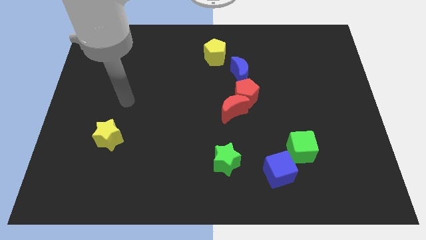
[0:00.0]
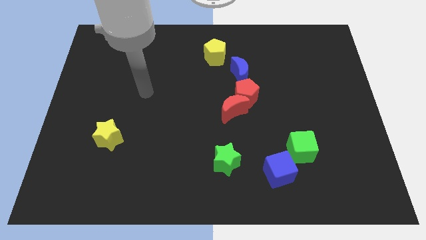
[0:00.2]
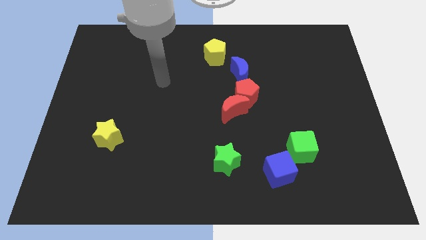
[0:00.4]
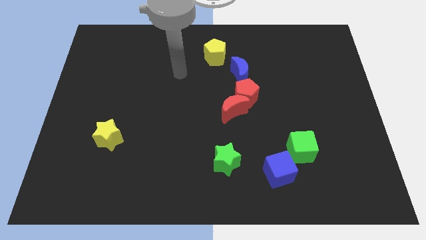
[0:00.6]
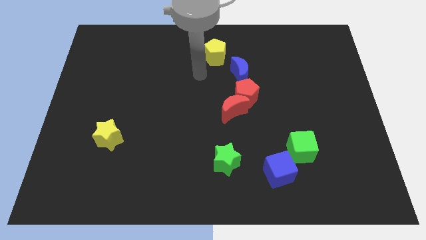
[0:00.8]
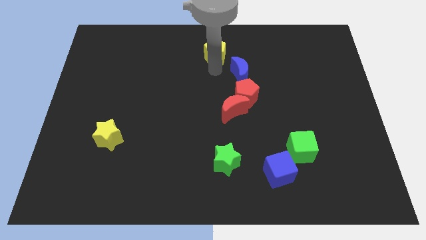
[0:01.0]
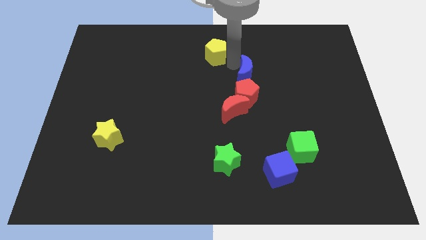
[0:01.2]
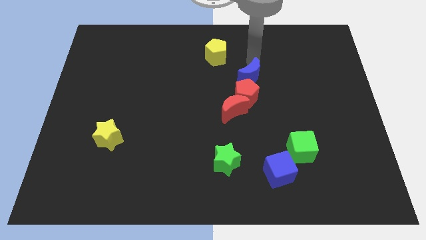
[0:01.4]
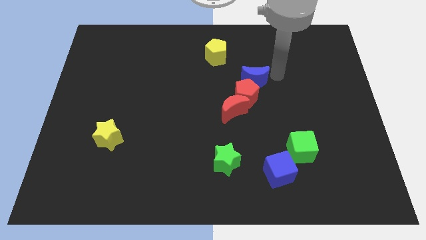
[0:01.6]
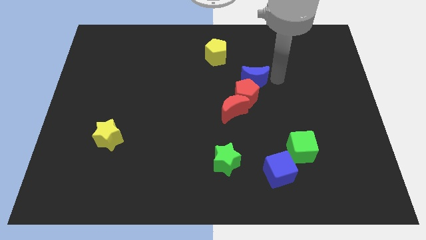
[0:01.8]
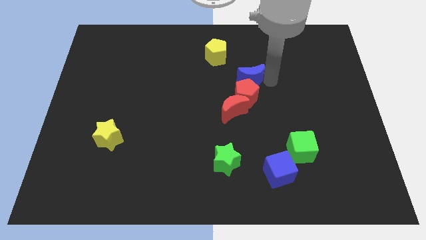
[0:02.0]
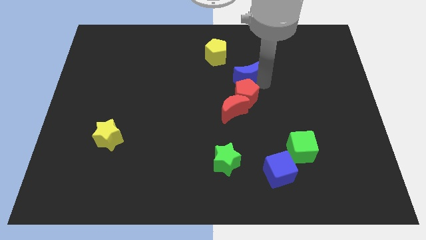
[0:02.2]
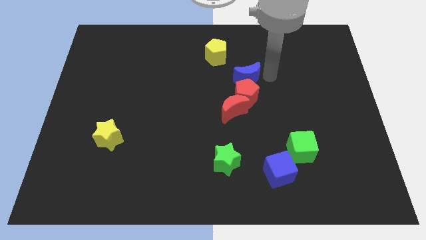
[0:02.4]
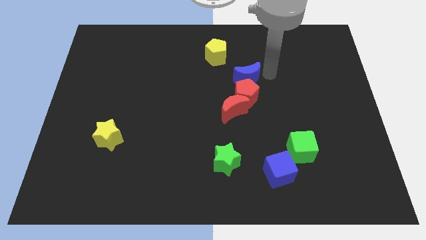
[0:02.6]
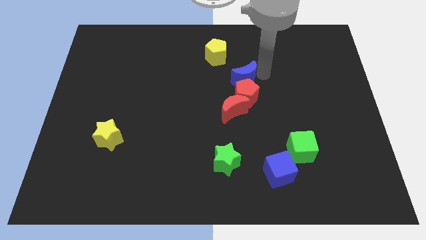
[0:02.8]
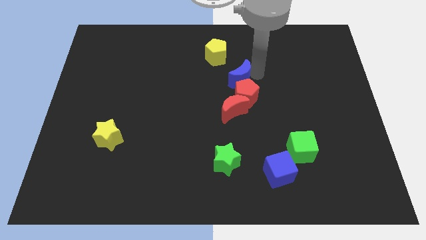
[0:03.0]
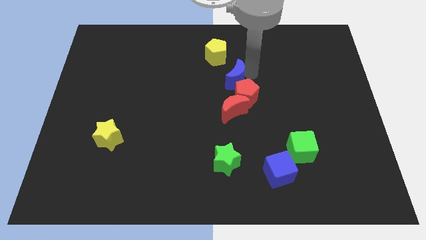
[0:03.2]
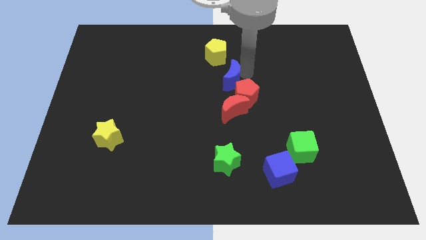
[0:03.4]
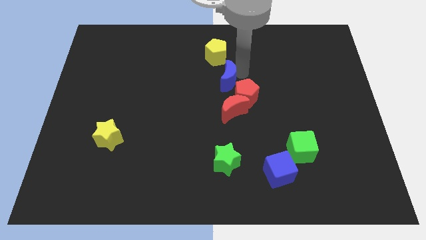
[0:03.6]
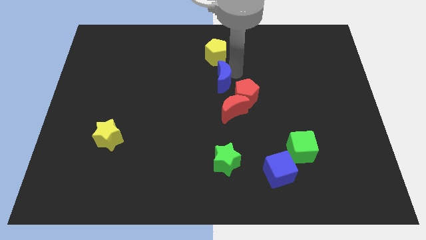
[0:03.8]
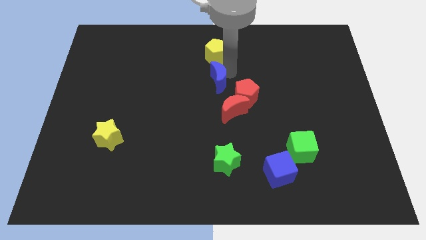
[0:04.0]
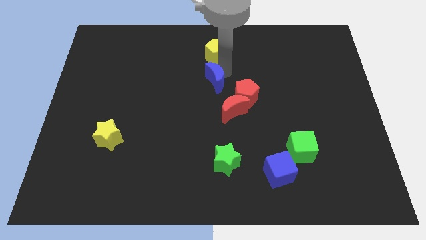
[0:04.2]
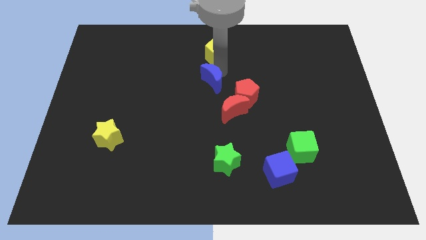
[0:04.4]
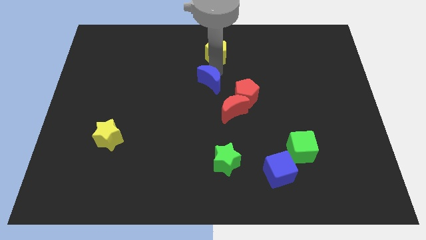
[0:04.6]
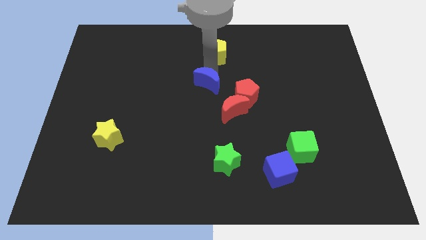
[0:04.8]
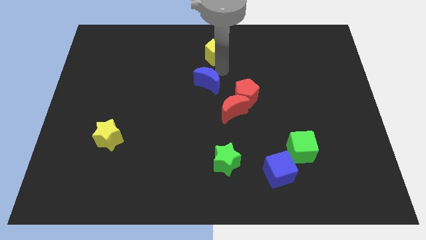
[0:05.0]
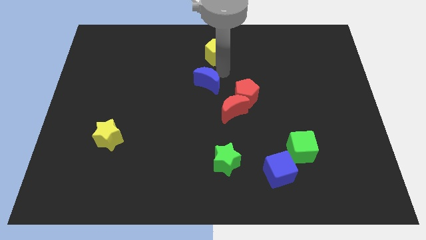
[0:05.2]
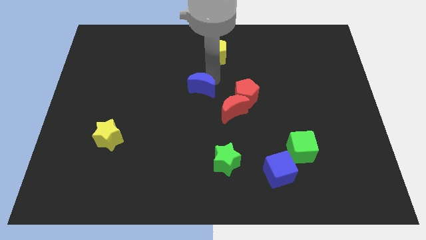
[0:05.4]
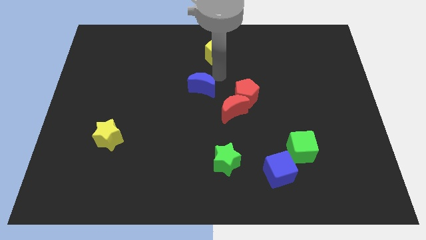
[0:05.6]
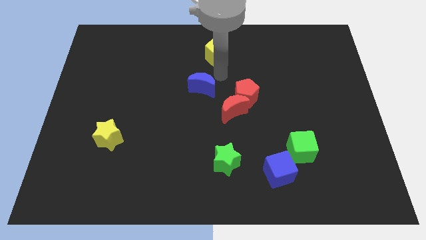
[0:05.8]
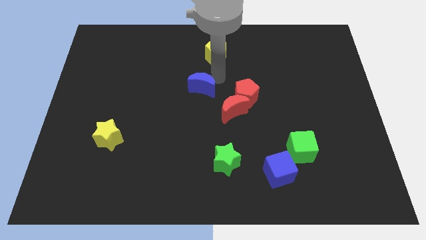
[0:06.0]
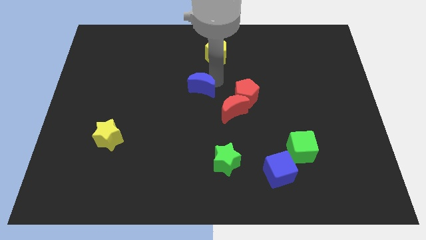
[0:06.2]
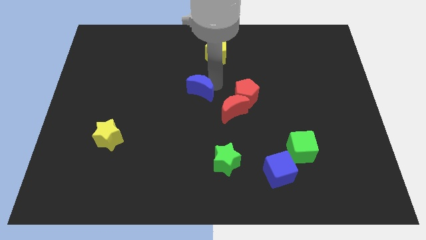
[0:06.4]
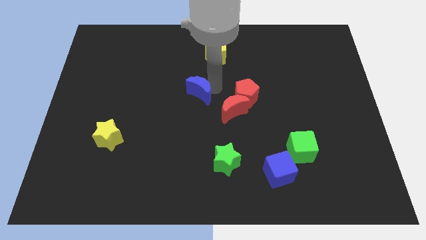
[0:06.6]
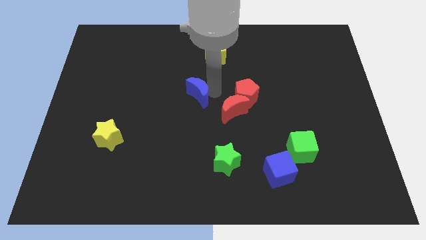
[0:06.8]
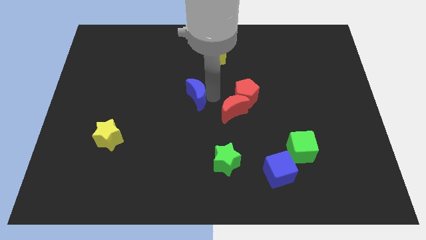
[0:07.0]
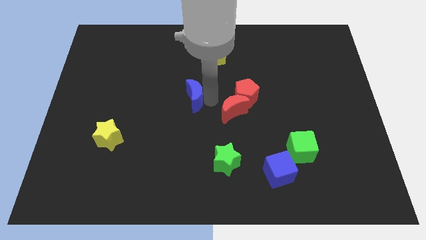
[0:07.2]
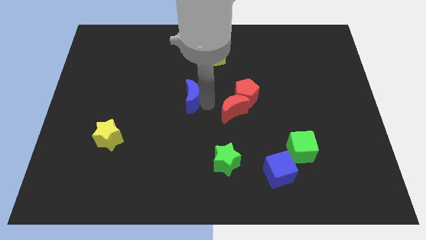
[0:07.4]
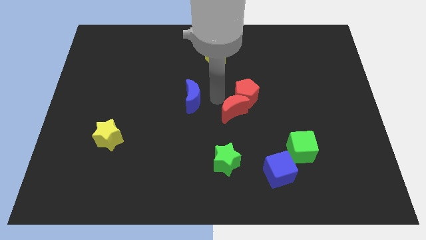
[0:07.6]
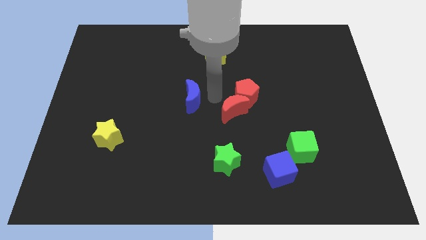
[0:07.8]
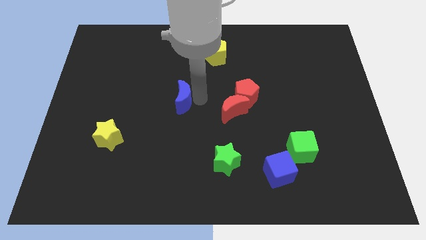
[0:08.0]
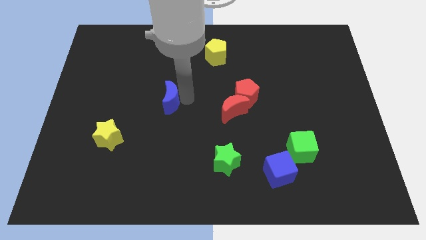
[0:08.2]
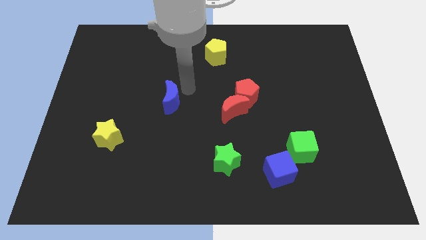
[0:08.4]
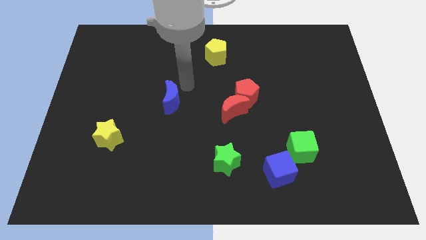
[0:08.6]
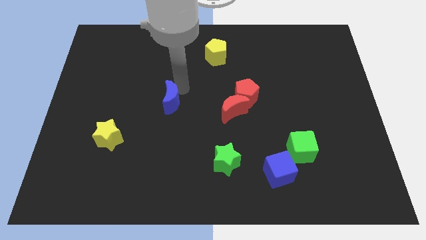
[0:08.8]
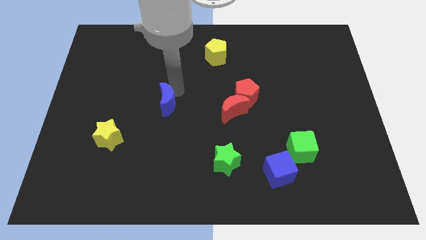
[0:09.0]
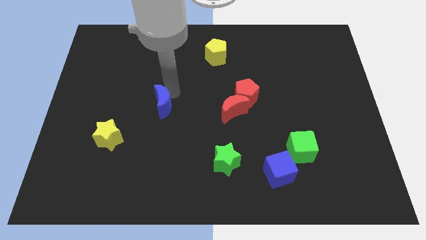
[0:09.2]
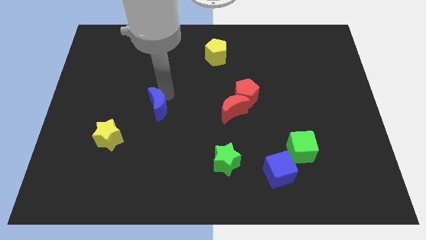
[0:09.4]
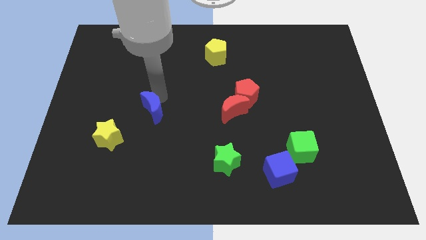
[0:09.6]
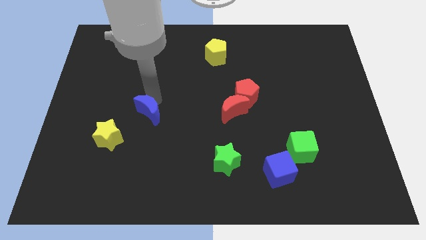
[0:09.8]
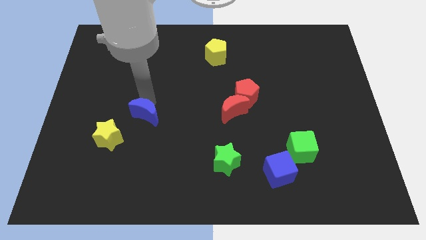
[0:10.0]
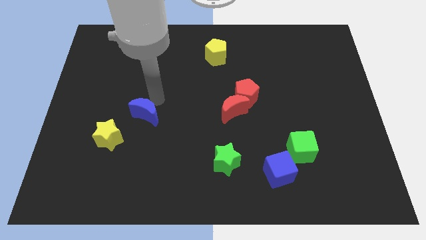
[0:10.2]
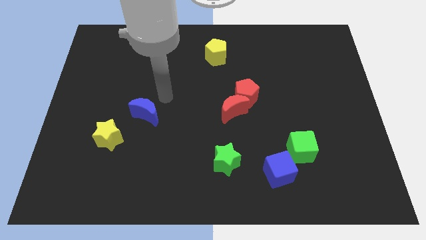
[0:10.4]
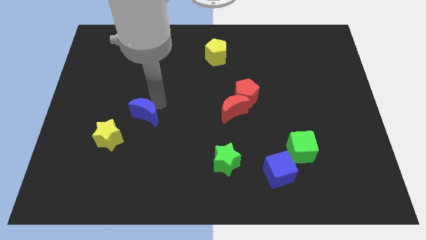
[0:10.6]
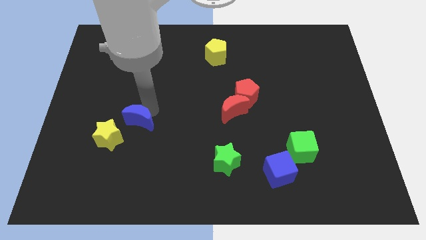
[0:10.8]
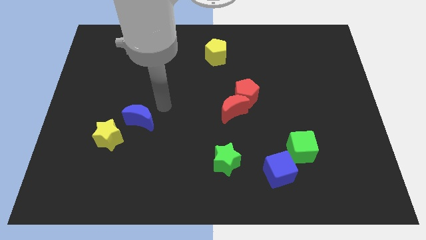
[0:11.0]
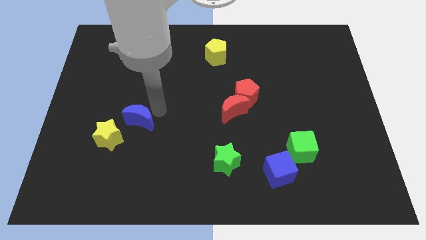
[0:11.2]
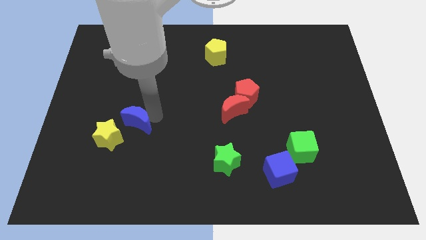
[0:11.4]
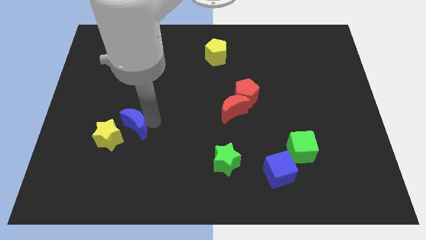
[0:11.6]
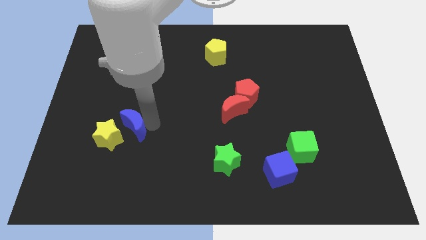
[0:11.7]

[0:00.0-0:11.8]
move the blue moon close to the yellow star

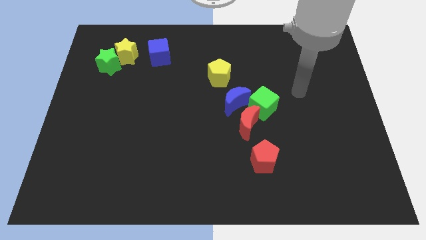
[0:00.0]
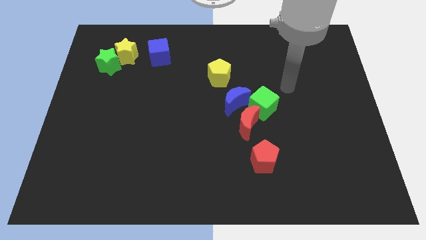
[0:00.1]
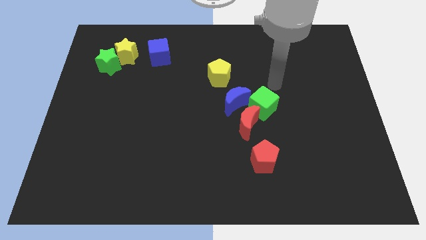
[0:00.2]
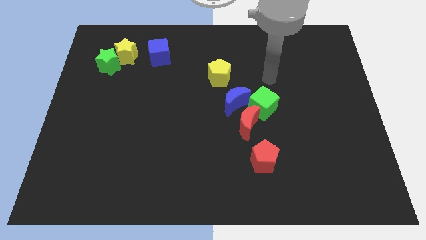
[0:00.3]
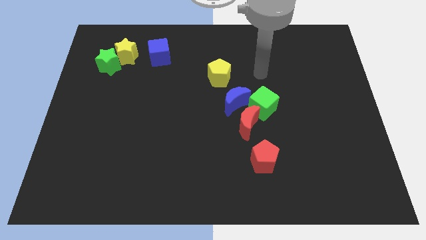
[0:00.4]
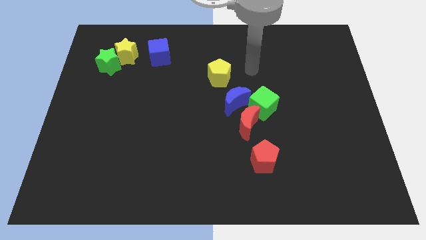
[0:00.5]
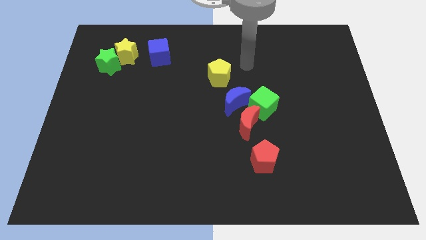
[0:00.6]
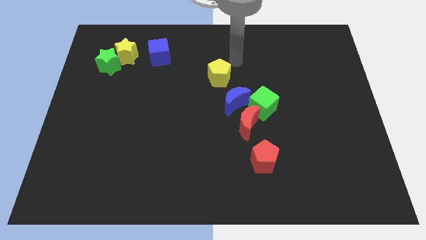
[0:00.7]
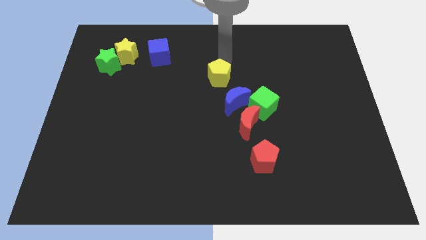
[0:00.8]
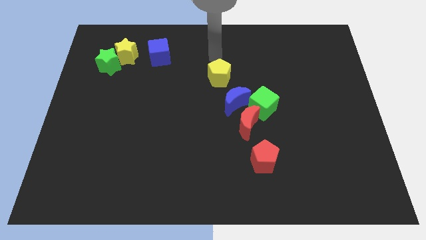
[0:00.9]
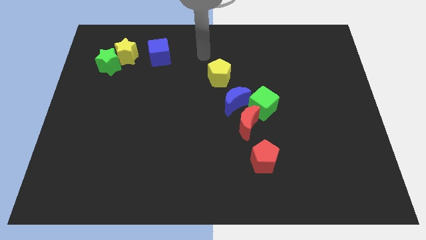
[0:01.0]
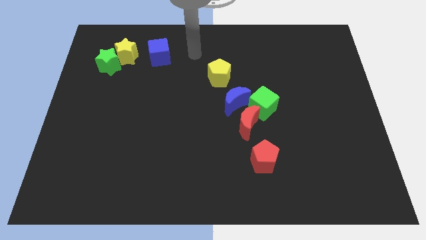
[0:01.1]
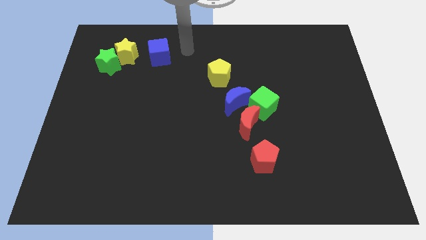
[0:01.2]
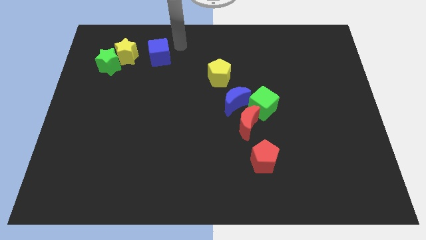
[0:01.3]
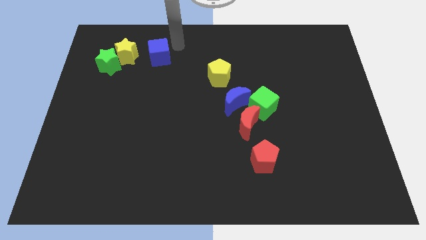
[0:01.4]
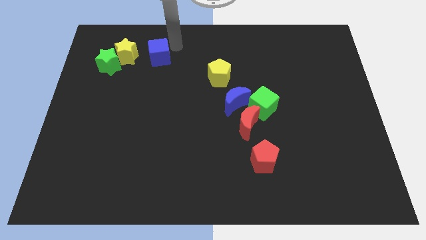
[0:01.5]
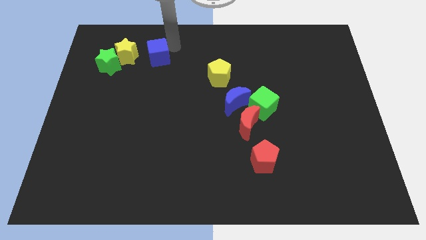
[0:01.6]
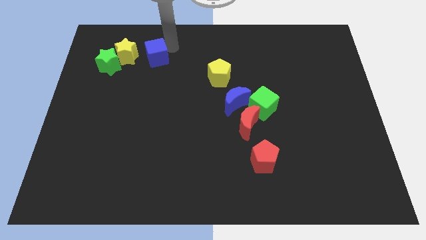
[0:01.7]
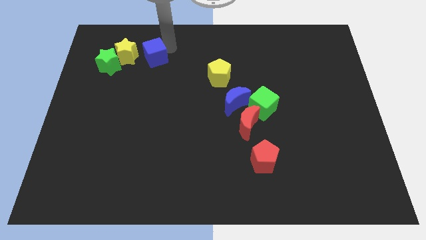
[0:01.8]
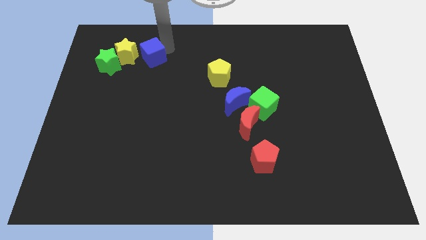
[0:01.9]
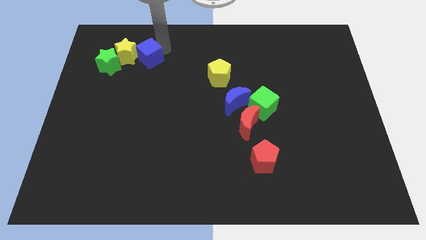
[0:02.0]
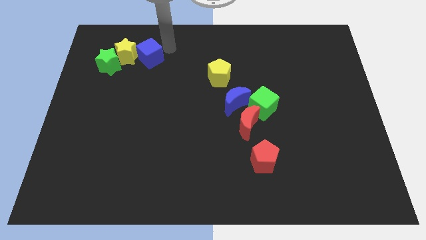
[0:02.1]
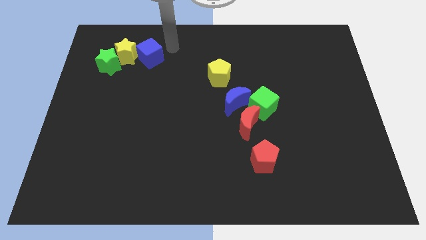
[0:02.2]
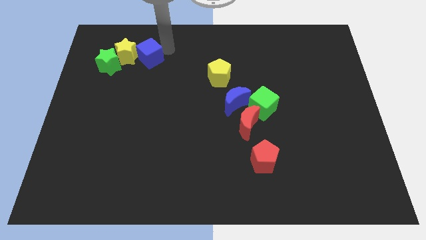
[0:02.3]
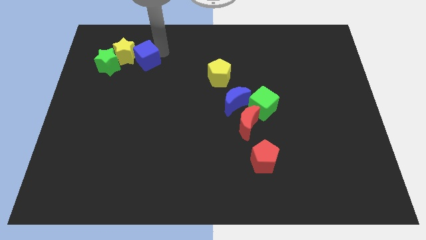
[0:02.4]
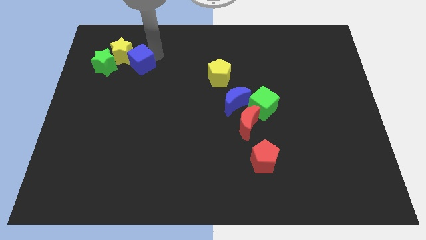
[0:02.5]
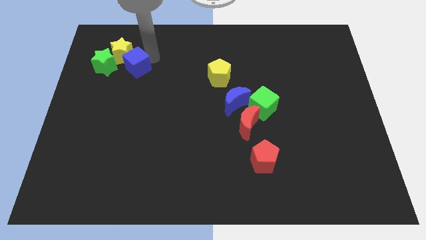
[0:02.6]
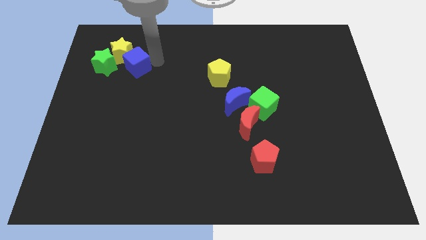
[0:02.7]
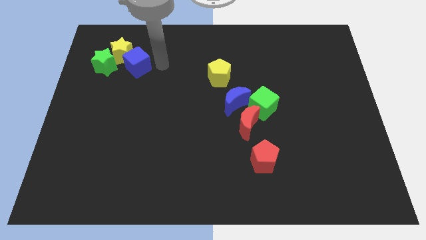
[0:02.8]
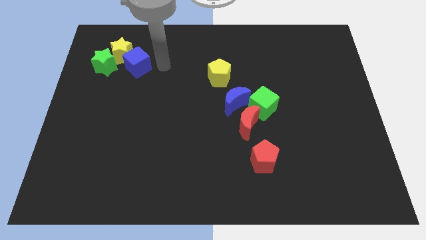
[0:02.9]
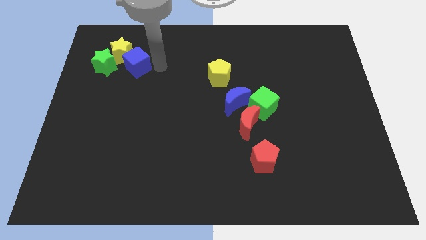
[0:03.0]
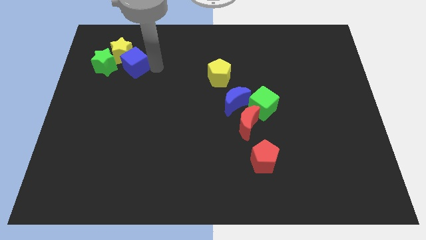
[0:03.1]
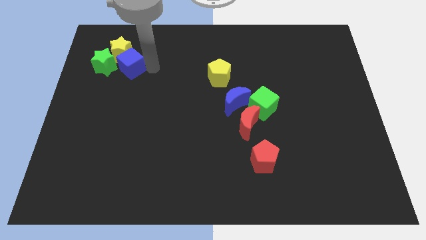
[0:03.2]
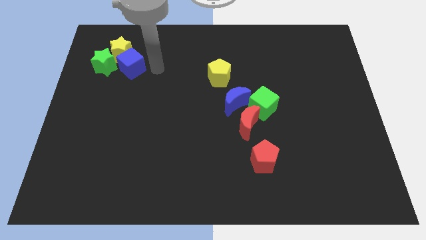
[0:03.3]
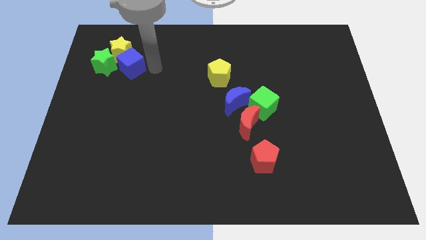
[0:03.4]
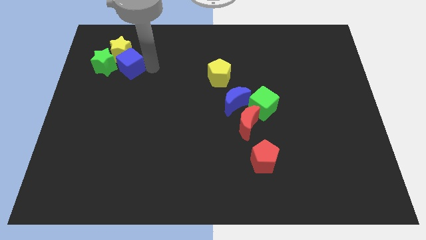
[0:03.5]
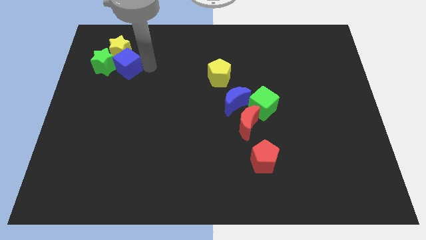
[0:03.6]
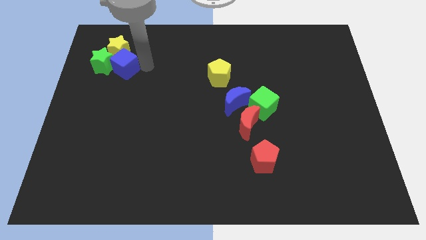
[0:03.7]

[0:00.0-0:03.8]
slide the blue cube close to the green star
